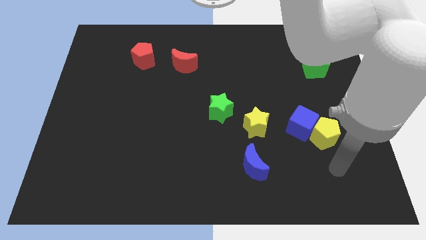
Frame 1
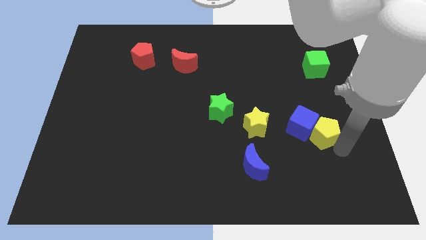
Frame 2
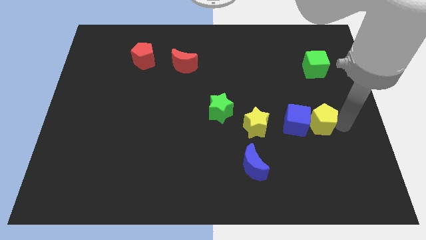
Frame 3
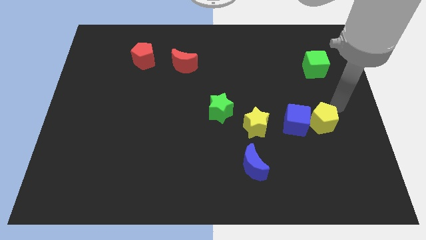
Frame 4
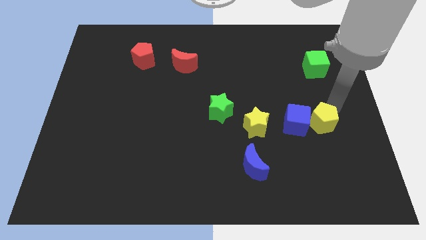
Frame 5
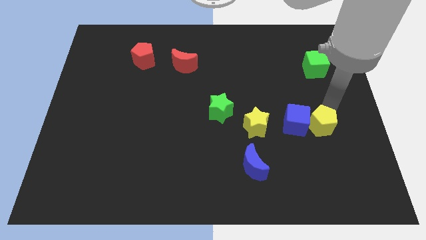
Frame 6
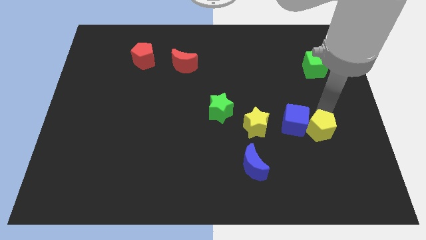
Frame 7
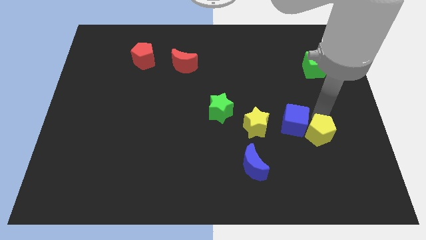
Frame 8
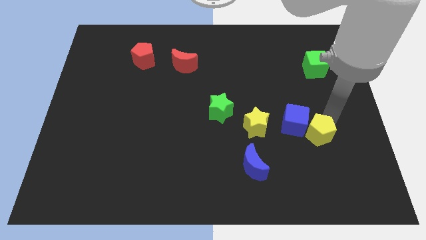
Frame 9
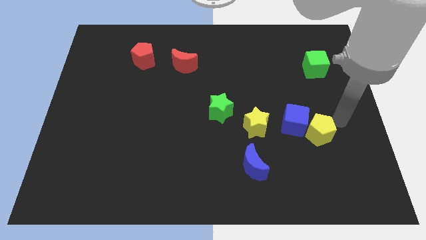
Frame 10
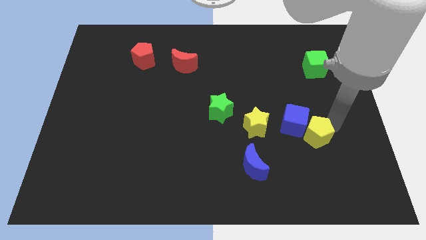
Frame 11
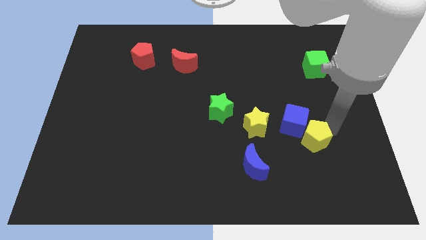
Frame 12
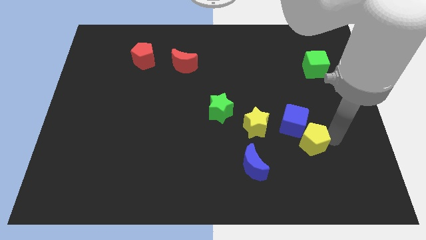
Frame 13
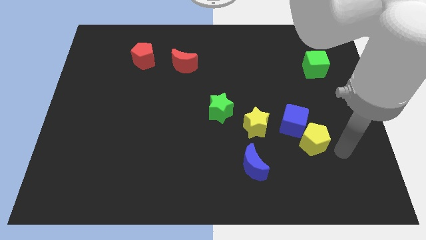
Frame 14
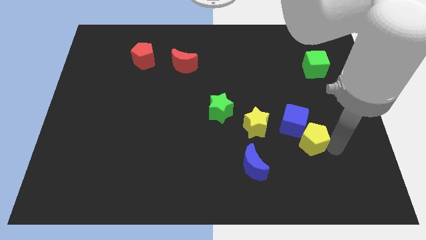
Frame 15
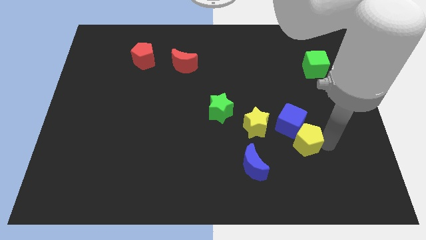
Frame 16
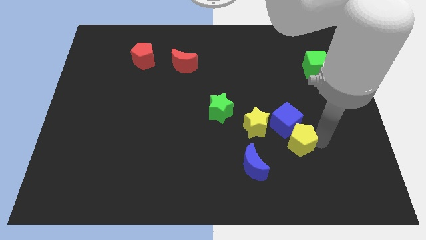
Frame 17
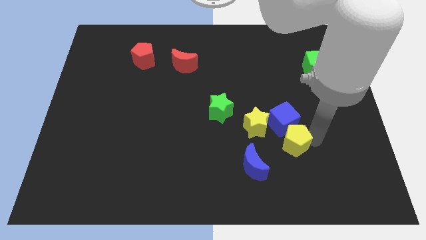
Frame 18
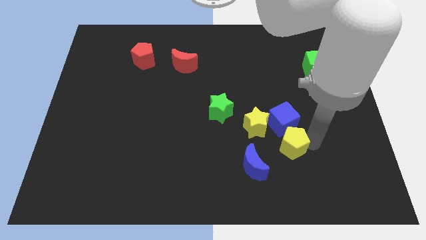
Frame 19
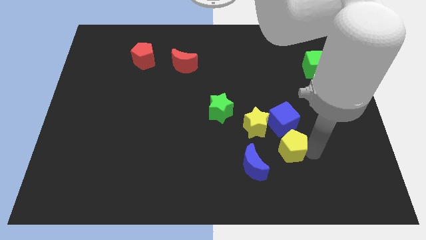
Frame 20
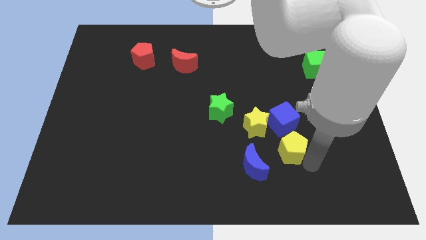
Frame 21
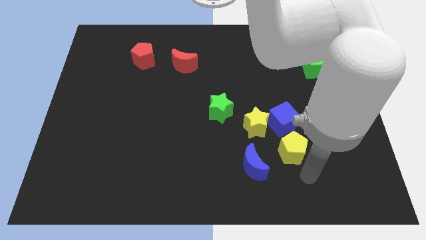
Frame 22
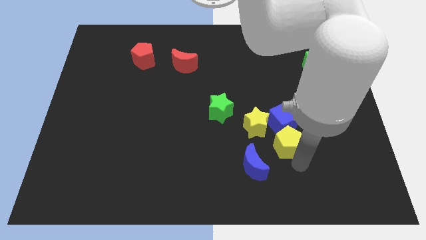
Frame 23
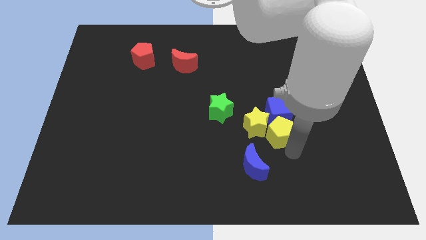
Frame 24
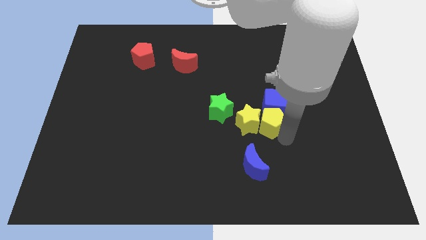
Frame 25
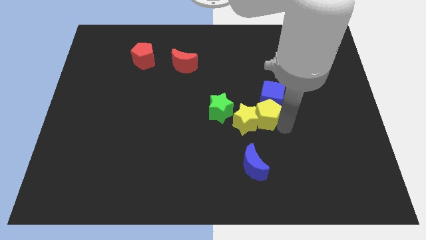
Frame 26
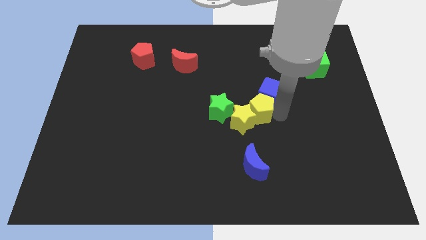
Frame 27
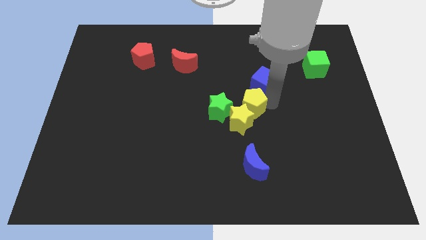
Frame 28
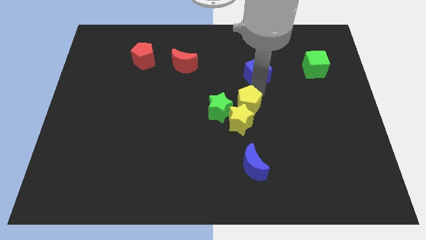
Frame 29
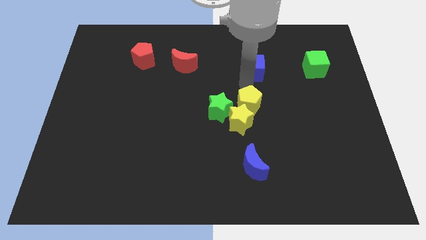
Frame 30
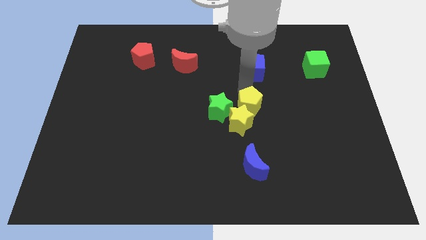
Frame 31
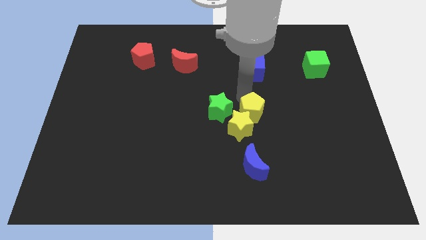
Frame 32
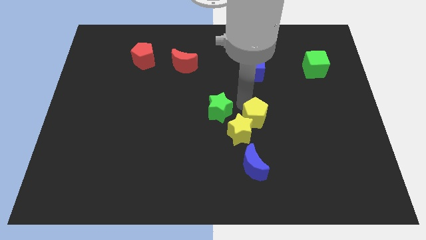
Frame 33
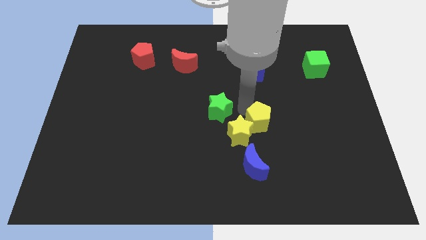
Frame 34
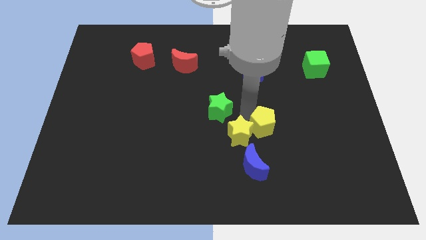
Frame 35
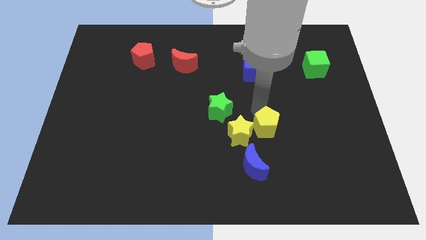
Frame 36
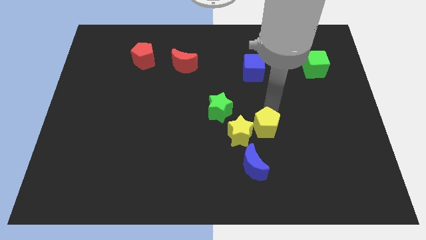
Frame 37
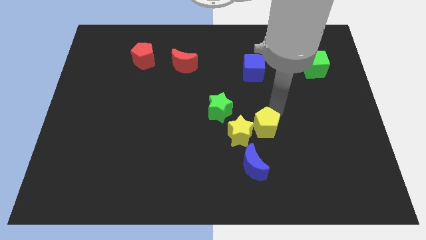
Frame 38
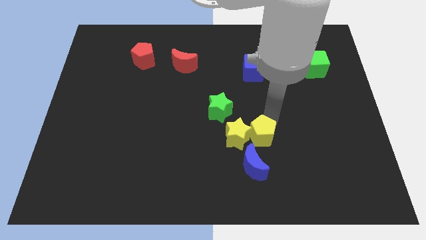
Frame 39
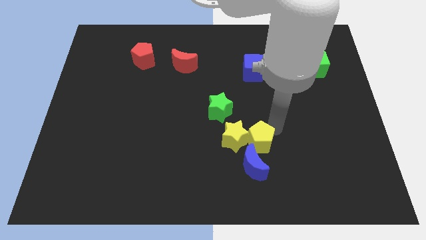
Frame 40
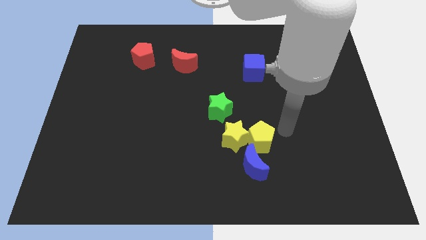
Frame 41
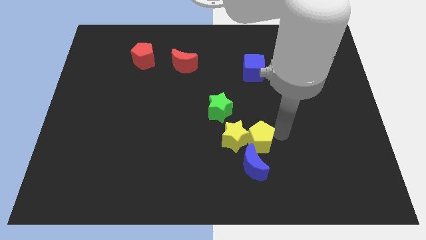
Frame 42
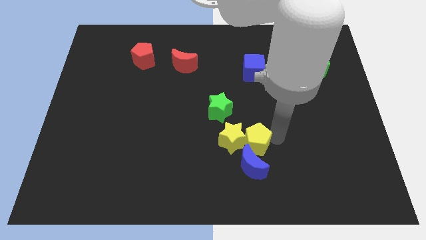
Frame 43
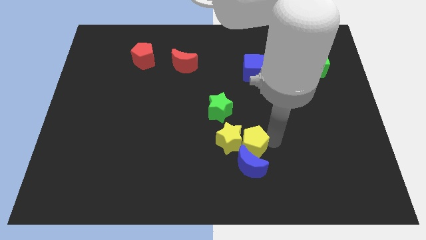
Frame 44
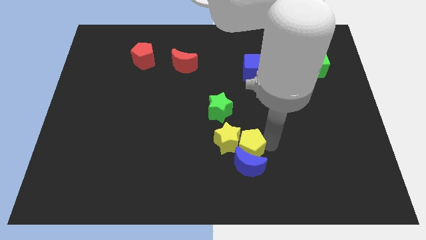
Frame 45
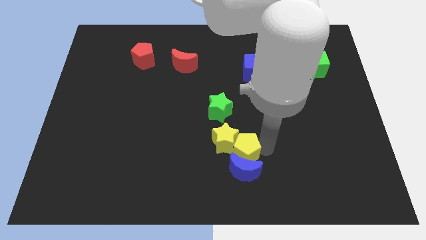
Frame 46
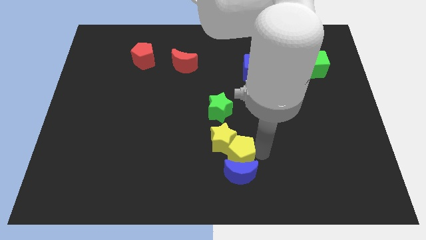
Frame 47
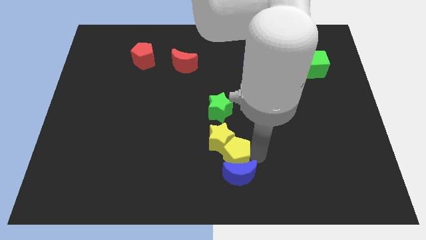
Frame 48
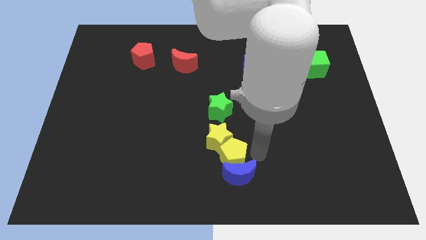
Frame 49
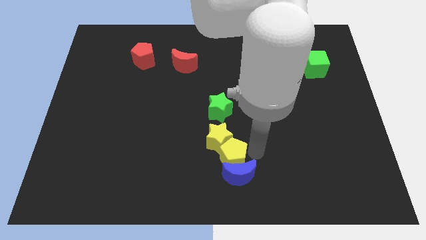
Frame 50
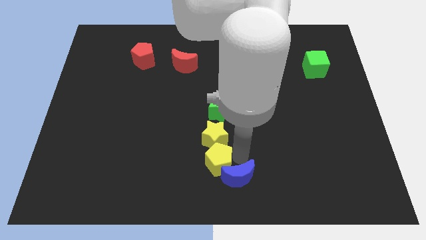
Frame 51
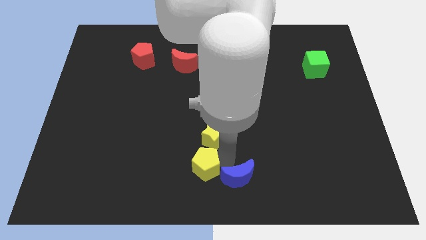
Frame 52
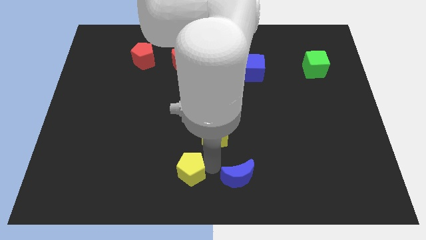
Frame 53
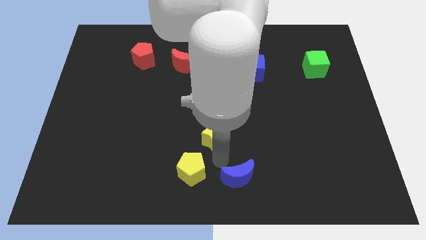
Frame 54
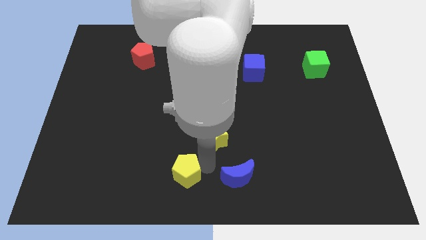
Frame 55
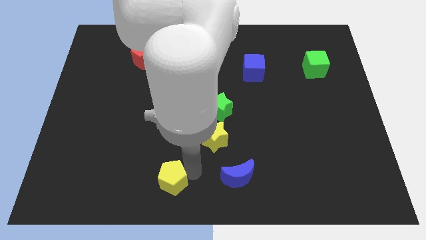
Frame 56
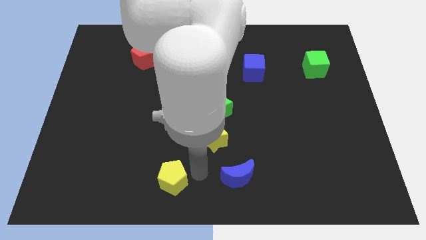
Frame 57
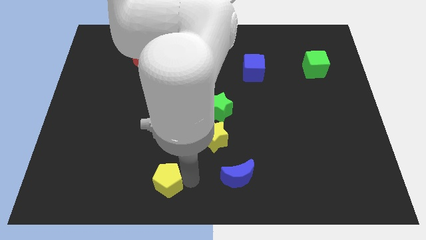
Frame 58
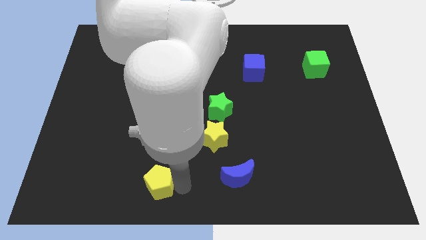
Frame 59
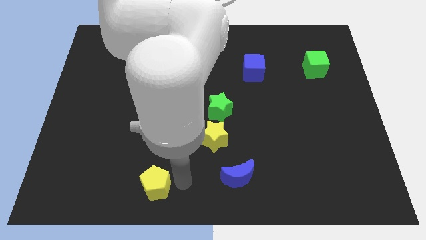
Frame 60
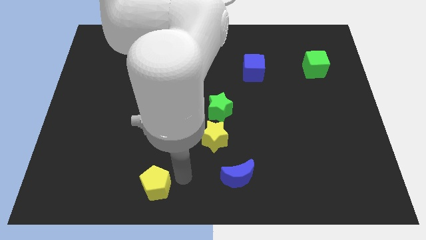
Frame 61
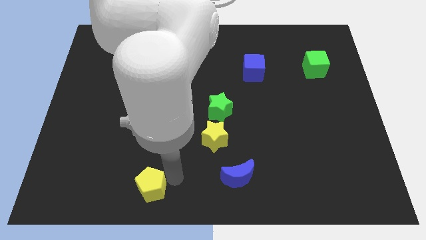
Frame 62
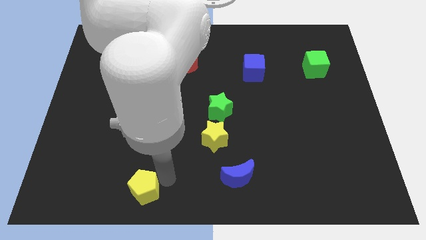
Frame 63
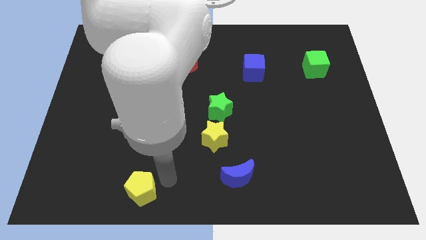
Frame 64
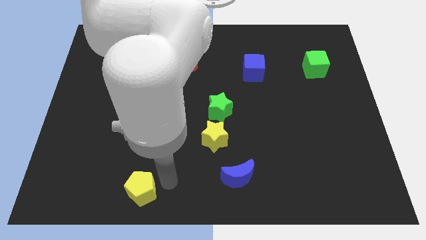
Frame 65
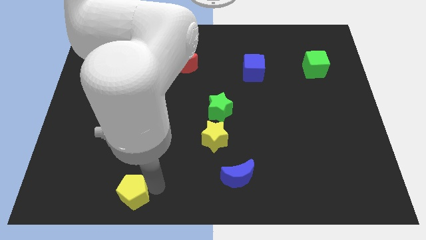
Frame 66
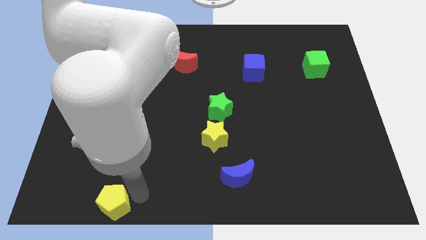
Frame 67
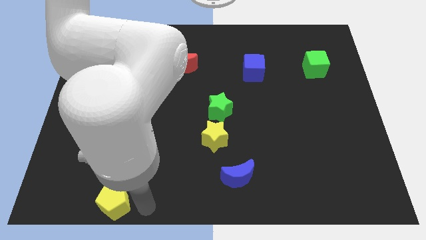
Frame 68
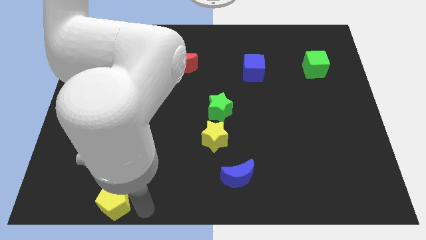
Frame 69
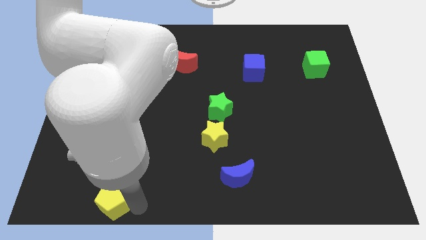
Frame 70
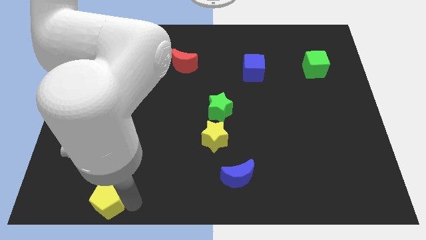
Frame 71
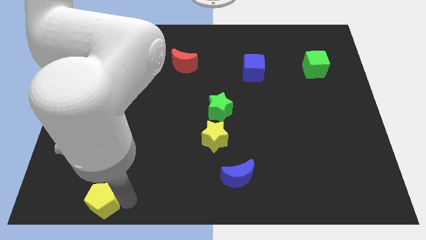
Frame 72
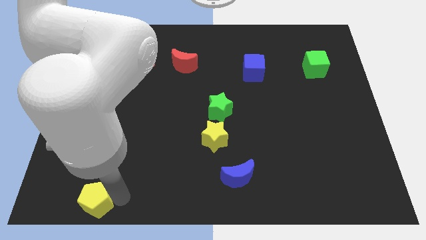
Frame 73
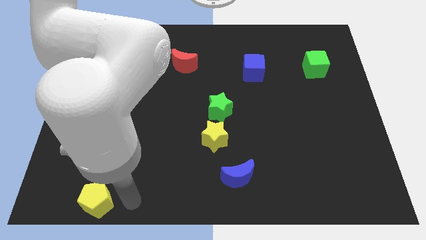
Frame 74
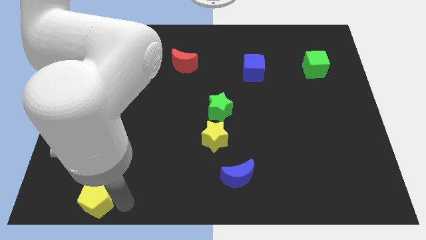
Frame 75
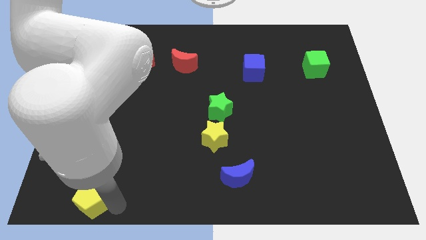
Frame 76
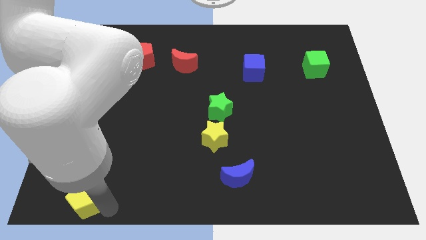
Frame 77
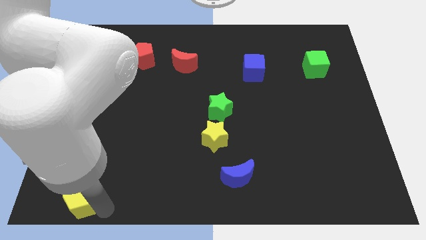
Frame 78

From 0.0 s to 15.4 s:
slide the yellow pentagon to the bottom left
